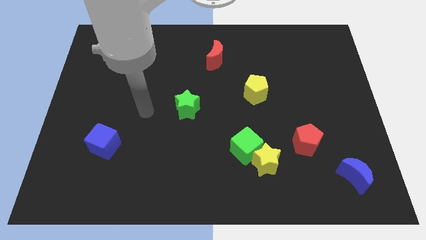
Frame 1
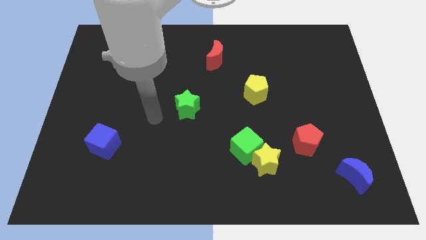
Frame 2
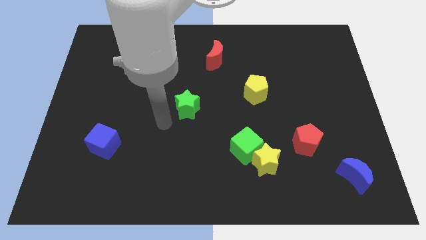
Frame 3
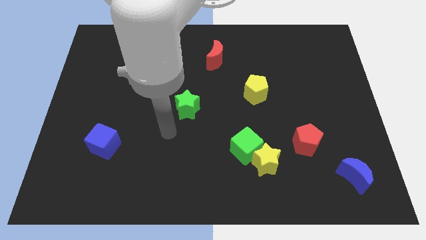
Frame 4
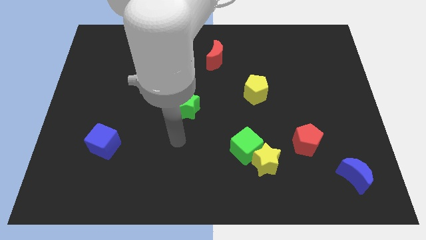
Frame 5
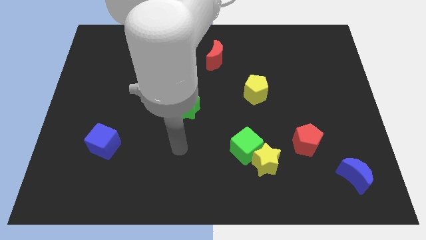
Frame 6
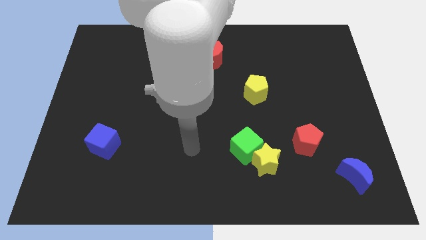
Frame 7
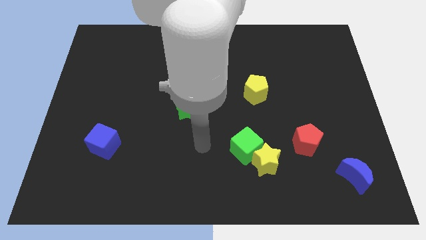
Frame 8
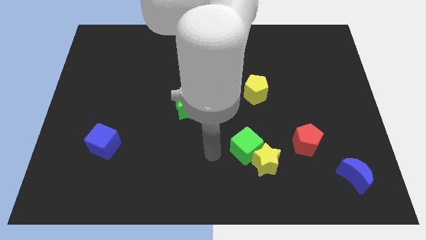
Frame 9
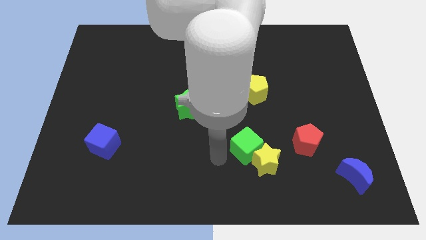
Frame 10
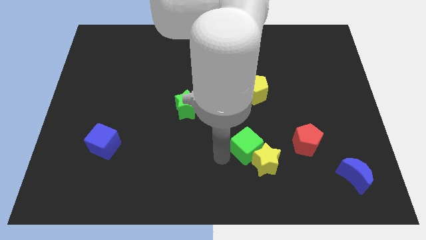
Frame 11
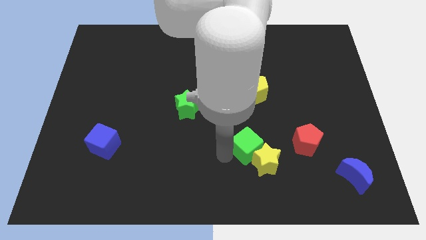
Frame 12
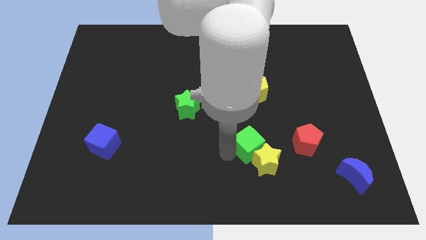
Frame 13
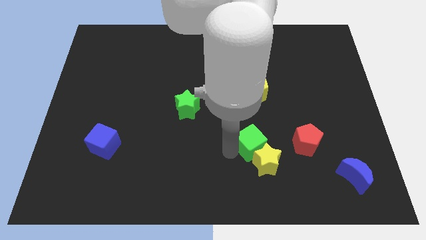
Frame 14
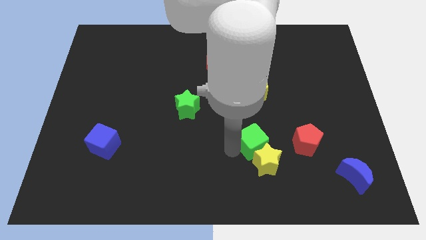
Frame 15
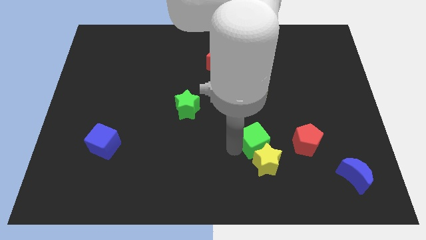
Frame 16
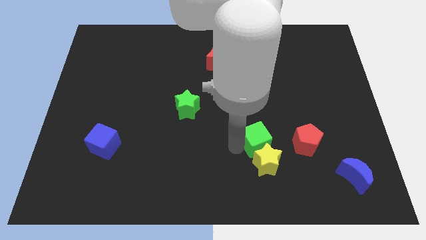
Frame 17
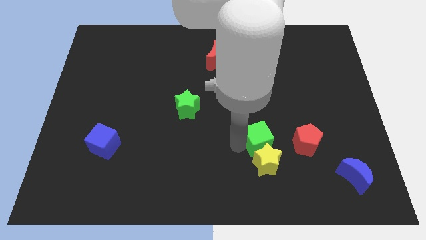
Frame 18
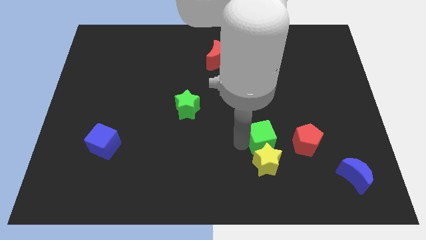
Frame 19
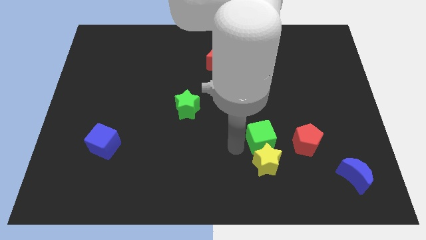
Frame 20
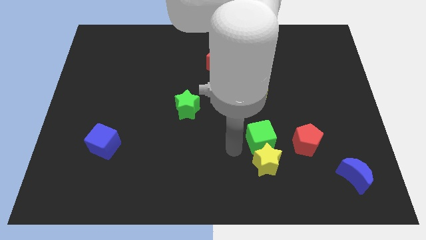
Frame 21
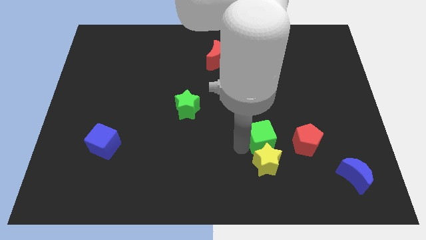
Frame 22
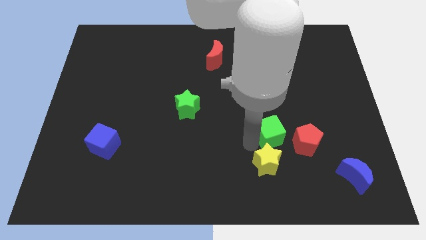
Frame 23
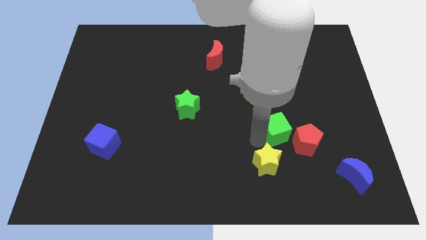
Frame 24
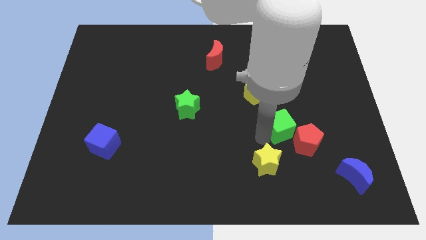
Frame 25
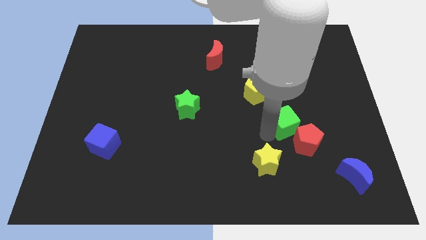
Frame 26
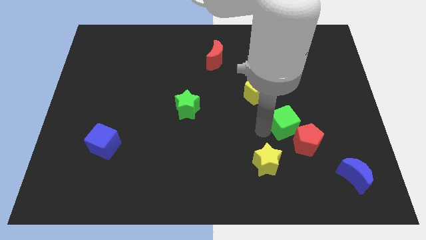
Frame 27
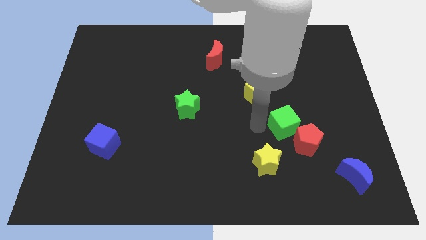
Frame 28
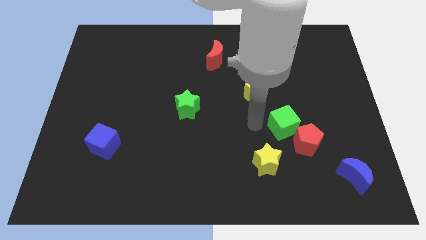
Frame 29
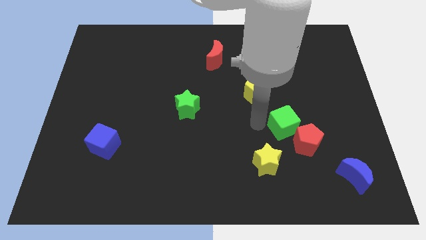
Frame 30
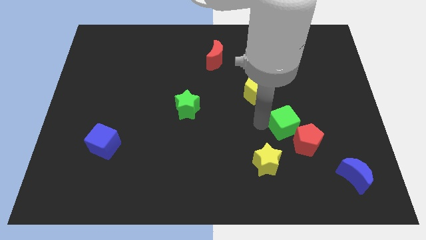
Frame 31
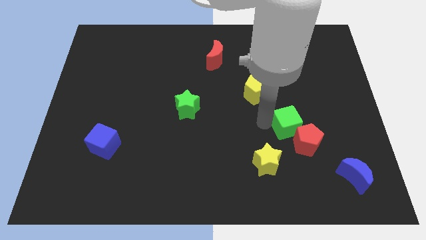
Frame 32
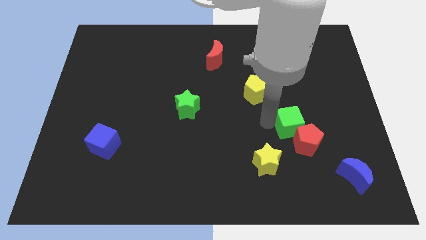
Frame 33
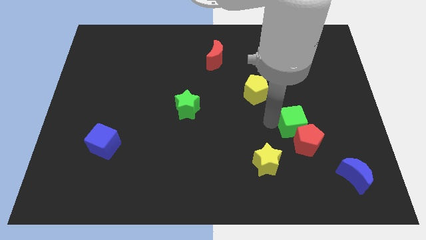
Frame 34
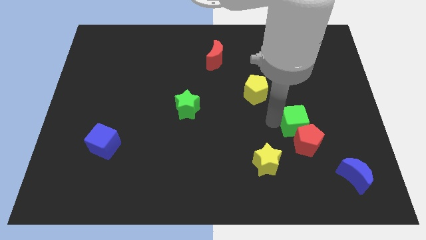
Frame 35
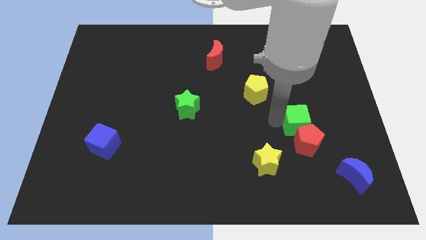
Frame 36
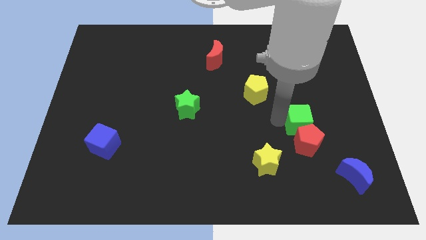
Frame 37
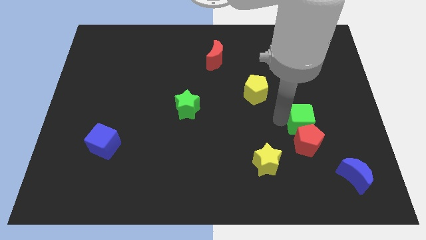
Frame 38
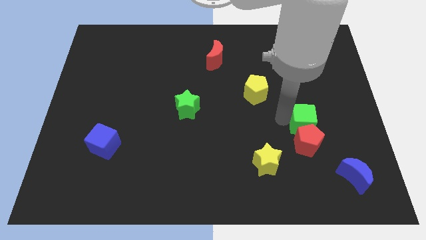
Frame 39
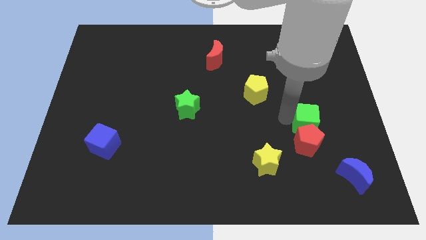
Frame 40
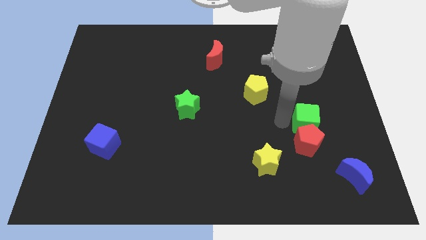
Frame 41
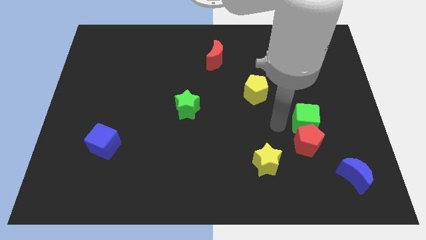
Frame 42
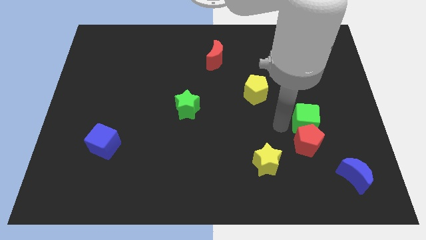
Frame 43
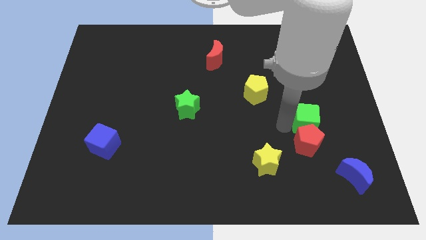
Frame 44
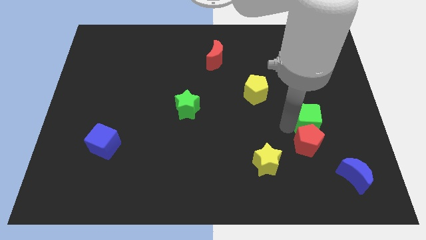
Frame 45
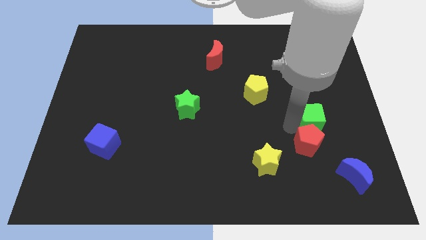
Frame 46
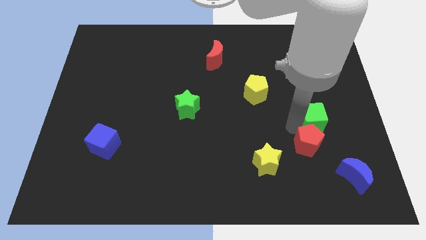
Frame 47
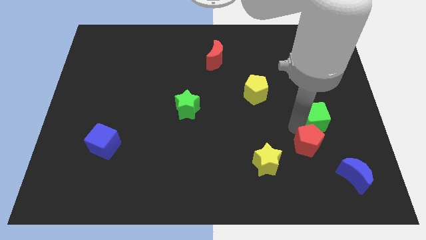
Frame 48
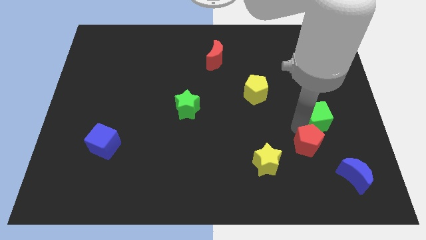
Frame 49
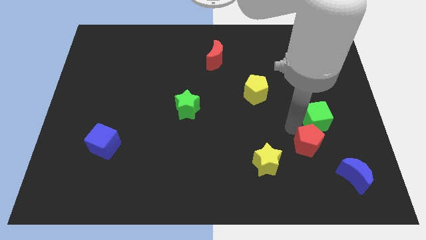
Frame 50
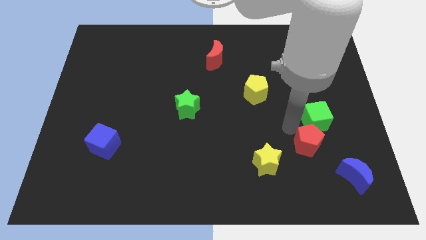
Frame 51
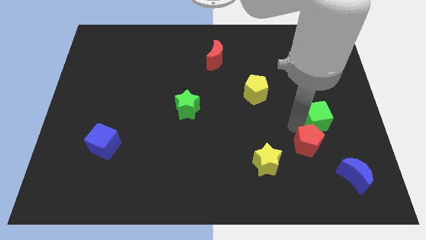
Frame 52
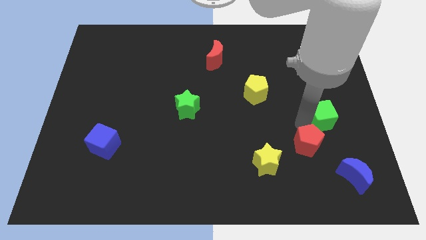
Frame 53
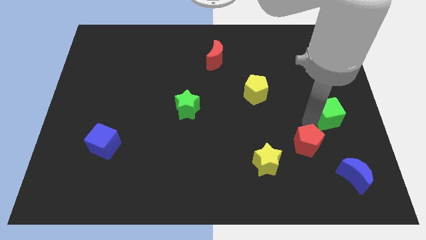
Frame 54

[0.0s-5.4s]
put the green cube to the right side of the board
